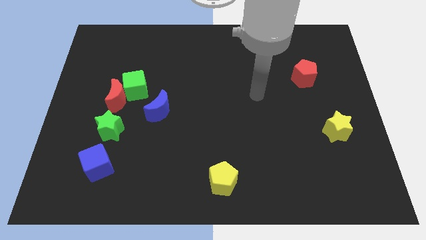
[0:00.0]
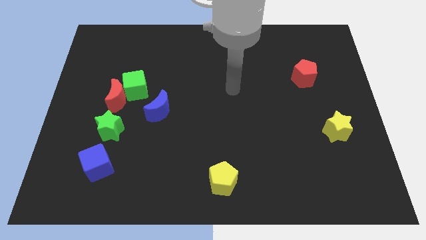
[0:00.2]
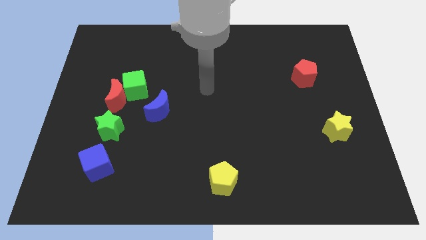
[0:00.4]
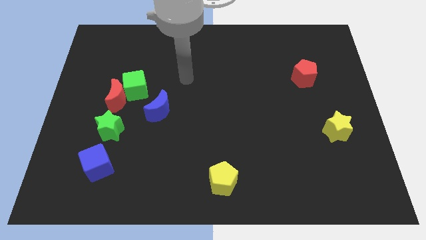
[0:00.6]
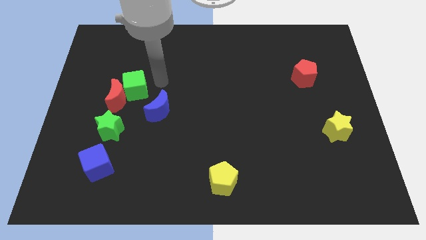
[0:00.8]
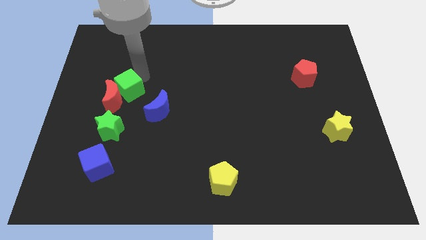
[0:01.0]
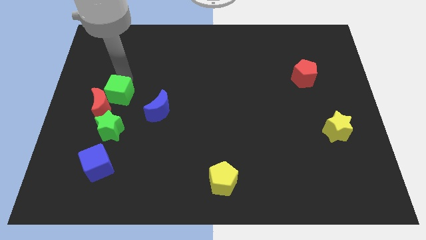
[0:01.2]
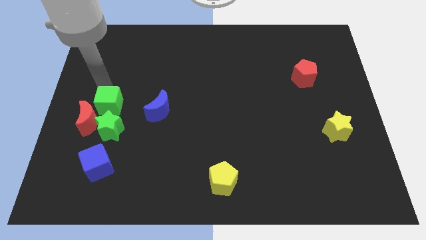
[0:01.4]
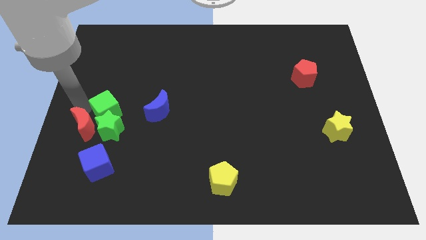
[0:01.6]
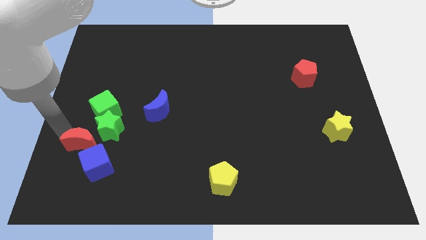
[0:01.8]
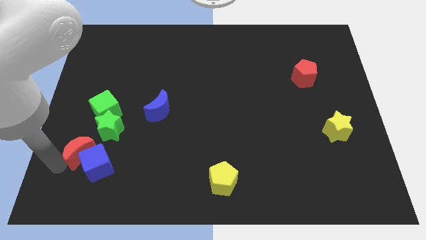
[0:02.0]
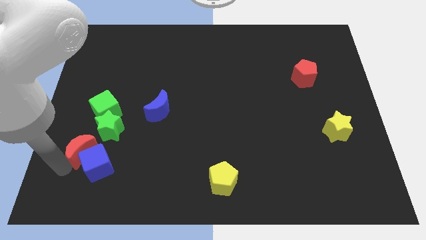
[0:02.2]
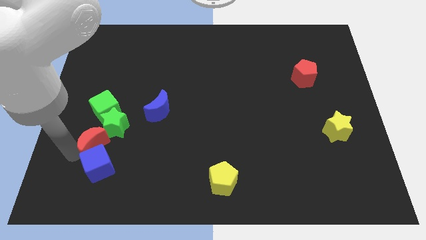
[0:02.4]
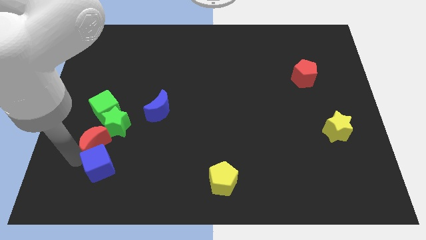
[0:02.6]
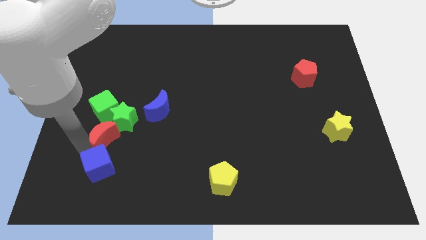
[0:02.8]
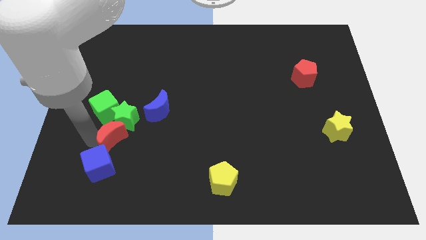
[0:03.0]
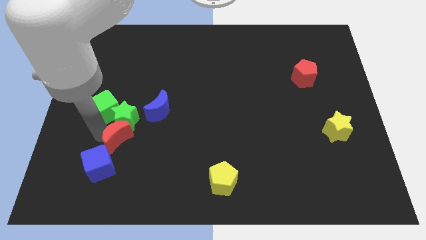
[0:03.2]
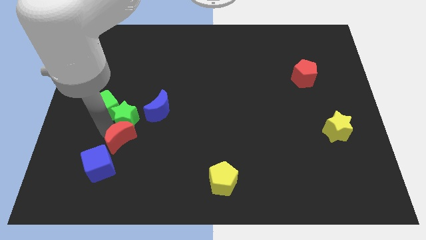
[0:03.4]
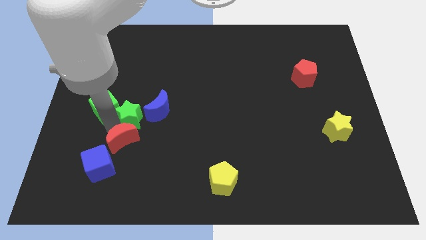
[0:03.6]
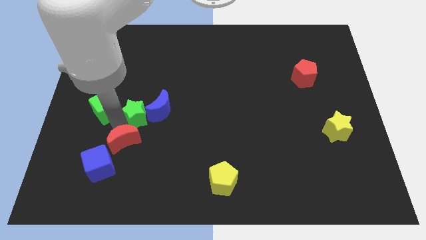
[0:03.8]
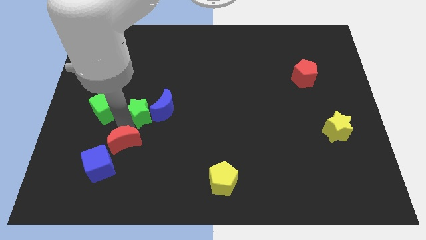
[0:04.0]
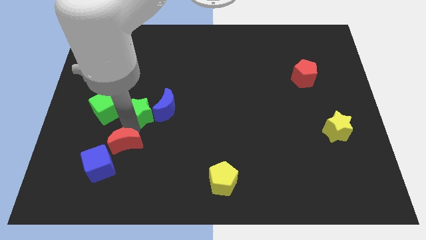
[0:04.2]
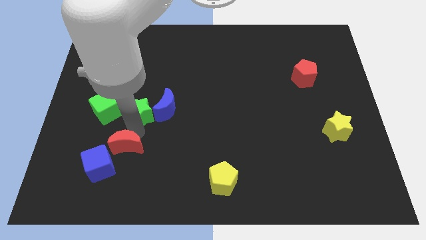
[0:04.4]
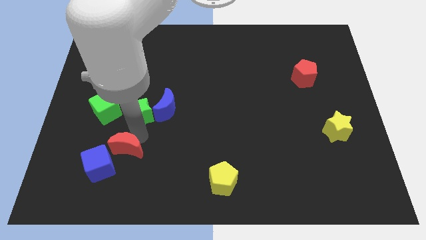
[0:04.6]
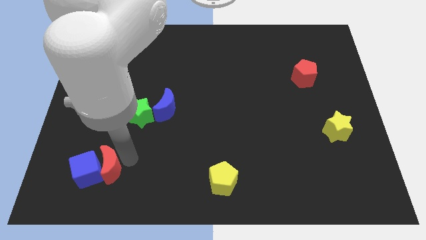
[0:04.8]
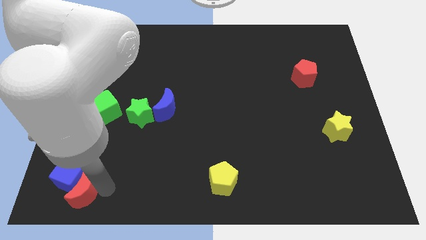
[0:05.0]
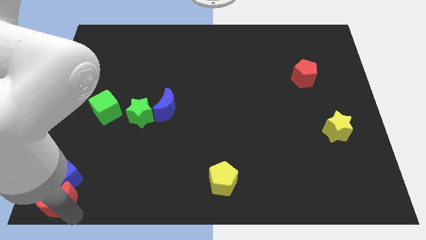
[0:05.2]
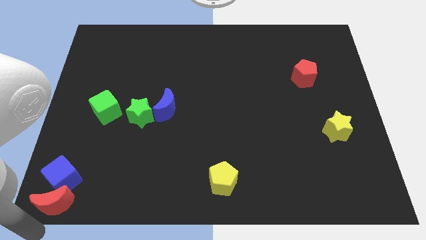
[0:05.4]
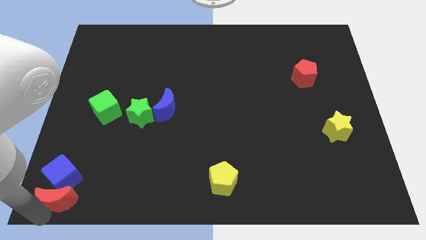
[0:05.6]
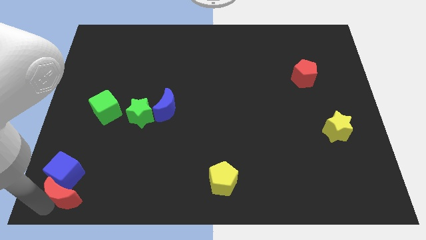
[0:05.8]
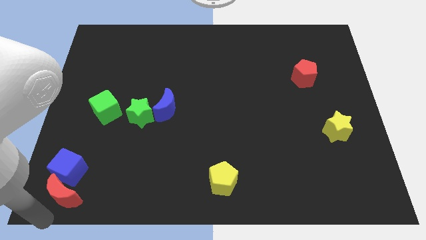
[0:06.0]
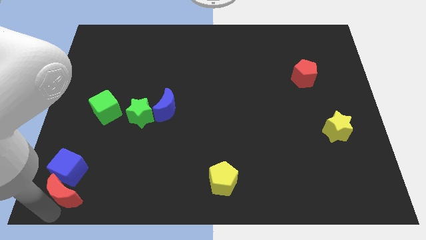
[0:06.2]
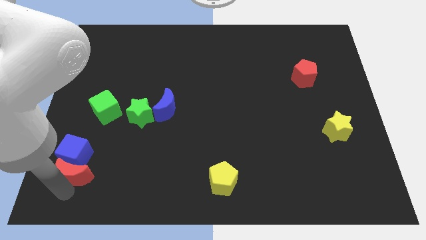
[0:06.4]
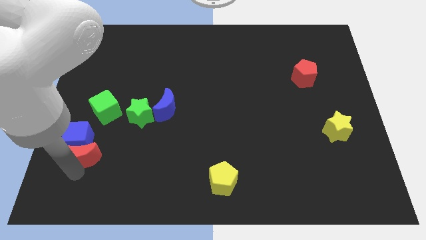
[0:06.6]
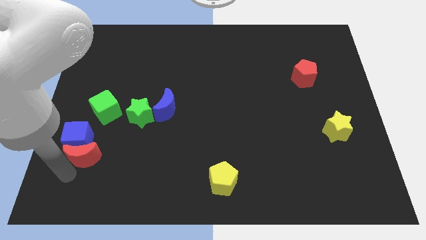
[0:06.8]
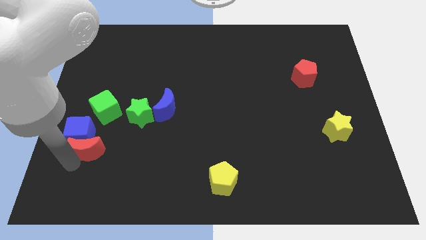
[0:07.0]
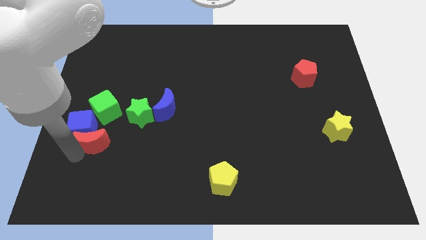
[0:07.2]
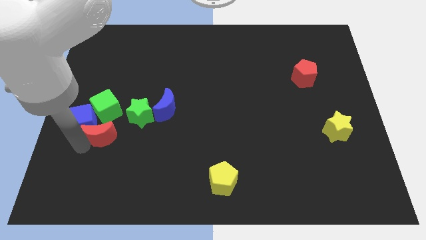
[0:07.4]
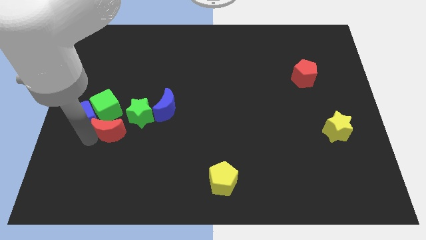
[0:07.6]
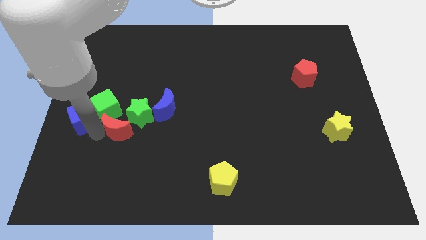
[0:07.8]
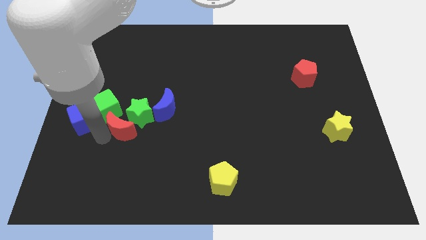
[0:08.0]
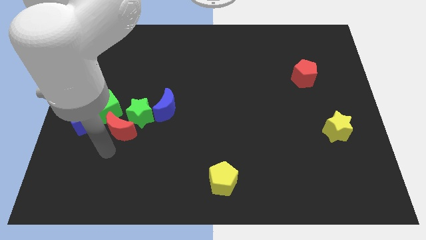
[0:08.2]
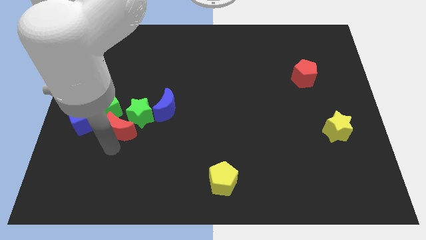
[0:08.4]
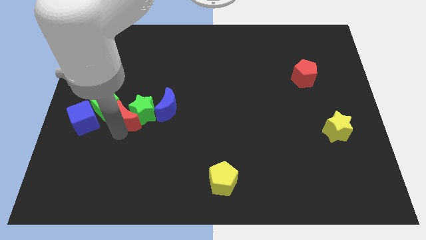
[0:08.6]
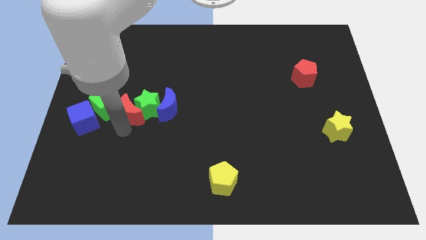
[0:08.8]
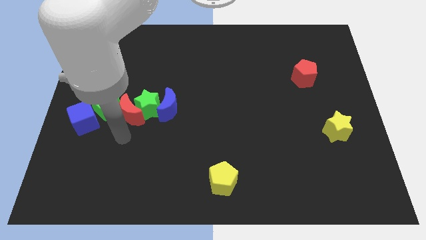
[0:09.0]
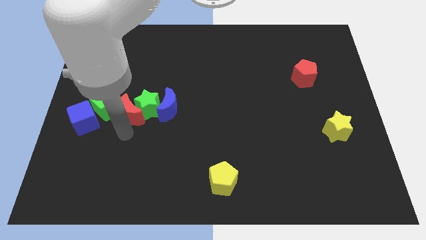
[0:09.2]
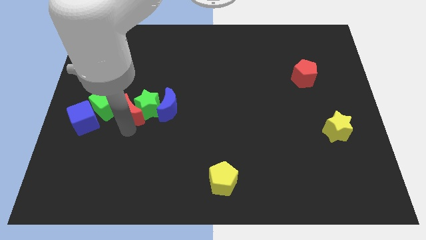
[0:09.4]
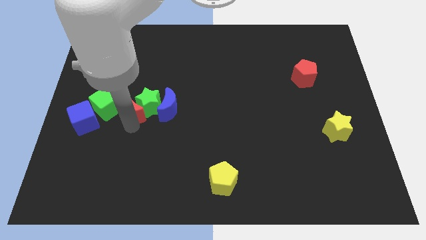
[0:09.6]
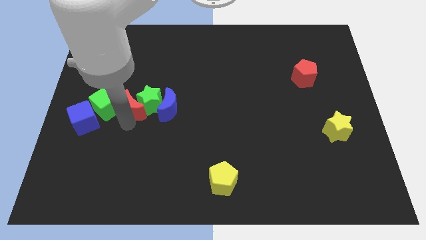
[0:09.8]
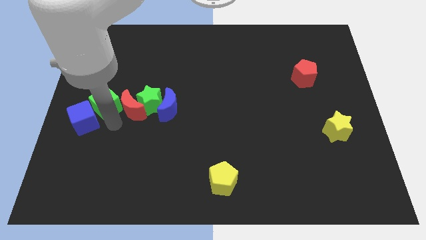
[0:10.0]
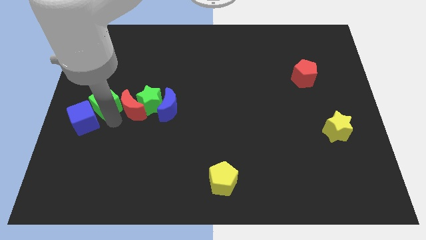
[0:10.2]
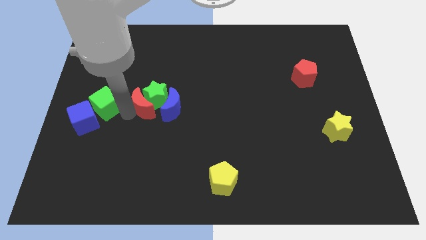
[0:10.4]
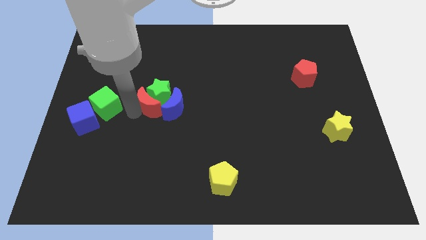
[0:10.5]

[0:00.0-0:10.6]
move the red moon slightly to the right

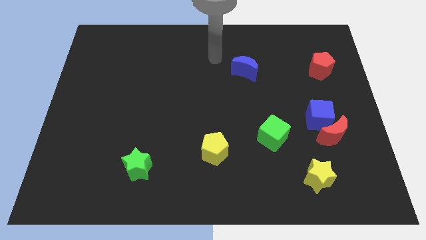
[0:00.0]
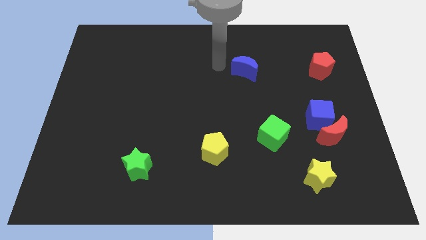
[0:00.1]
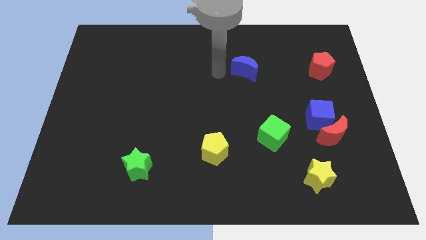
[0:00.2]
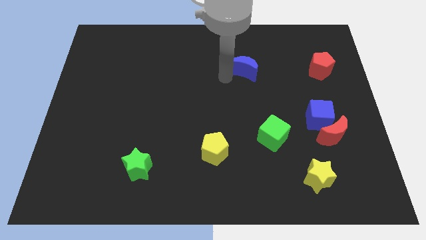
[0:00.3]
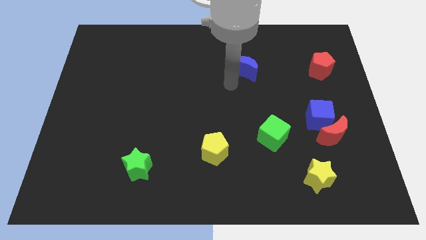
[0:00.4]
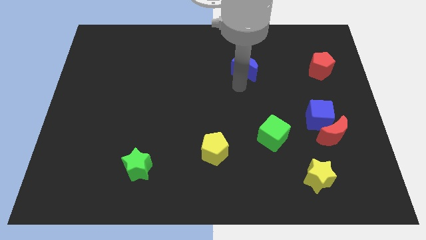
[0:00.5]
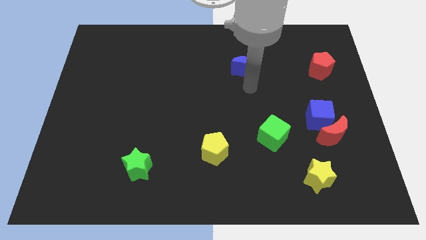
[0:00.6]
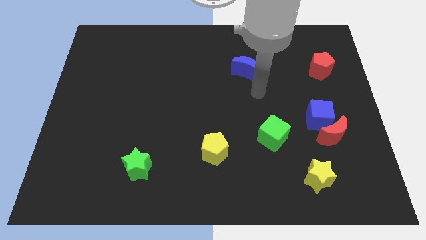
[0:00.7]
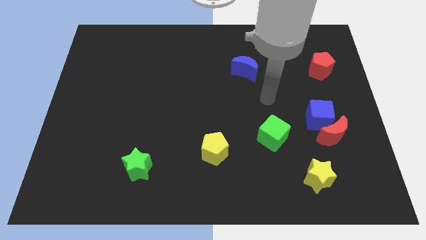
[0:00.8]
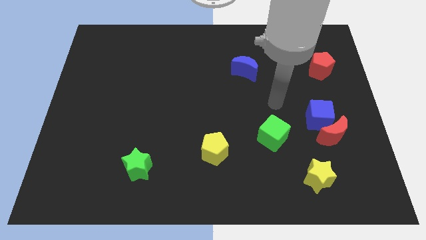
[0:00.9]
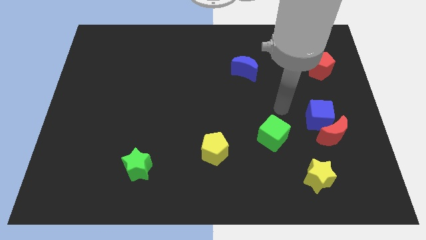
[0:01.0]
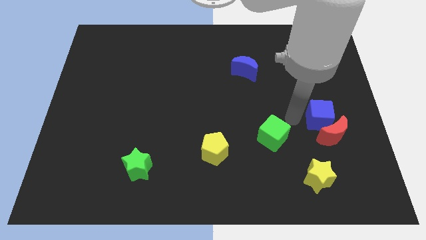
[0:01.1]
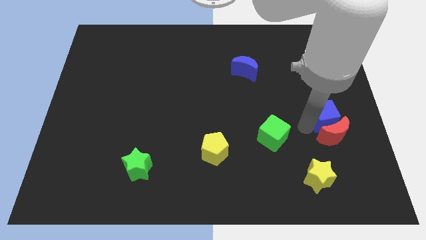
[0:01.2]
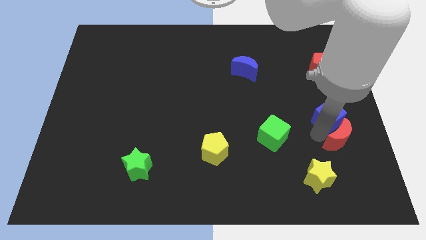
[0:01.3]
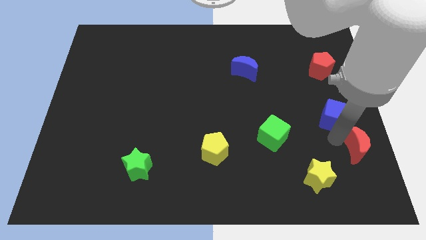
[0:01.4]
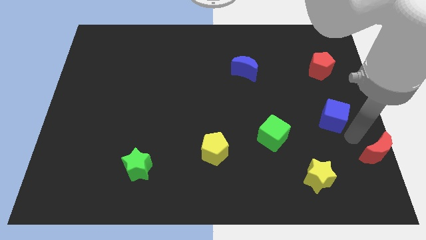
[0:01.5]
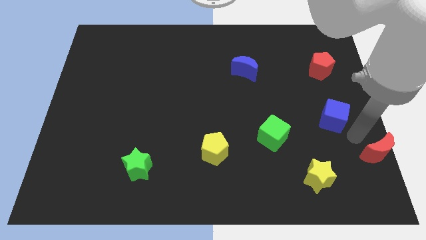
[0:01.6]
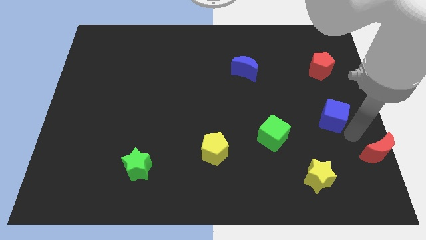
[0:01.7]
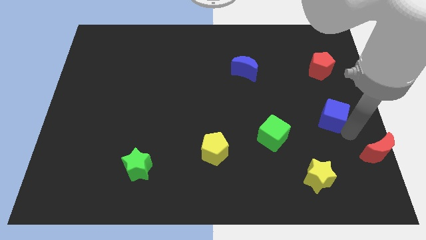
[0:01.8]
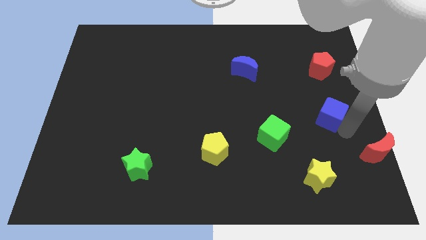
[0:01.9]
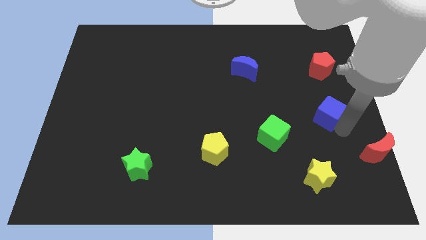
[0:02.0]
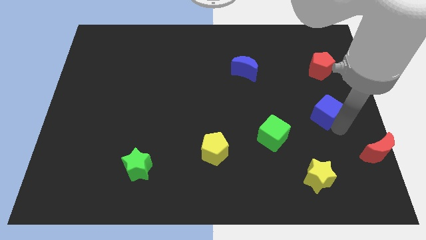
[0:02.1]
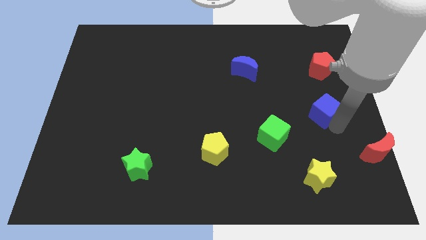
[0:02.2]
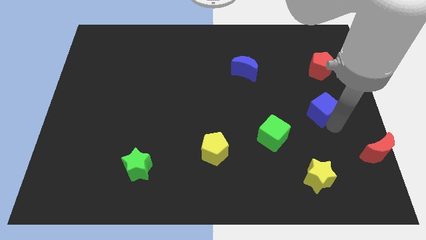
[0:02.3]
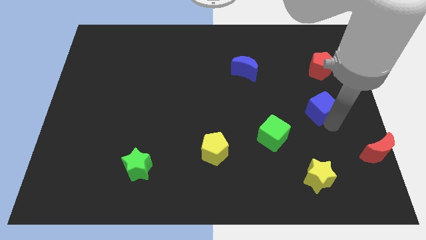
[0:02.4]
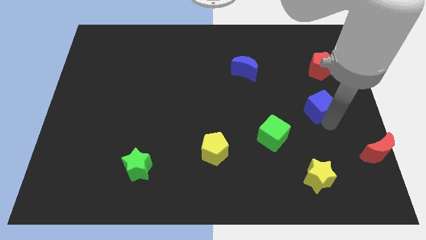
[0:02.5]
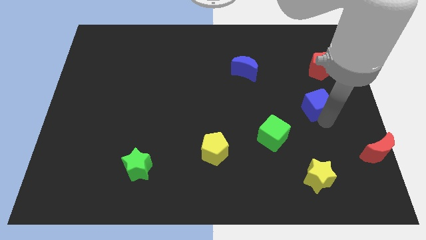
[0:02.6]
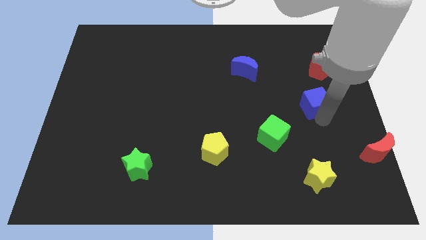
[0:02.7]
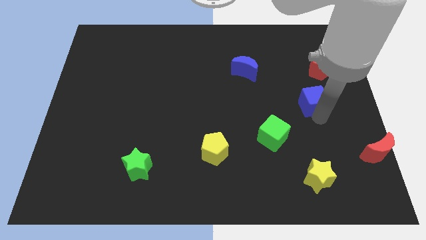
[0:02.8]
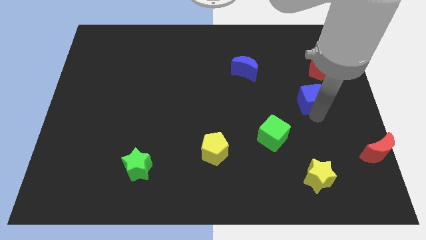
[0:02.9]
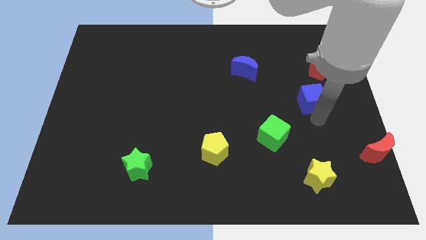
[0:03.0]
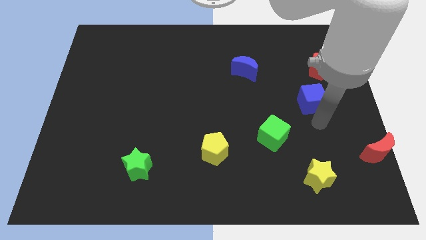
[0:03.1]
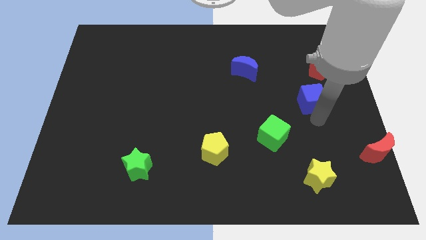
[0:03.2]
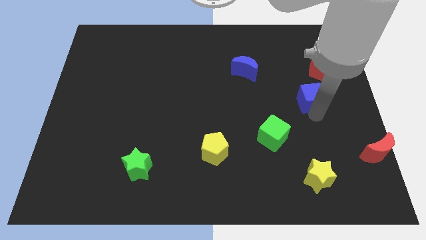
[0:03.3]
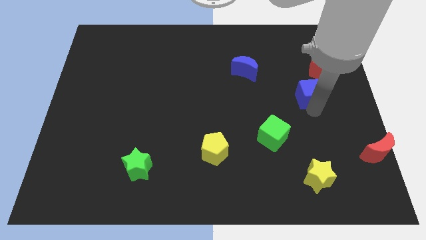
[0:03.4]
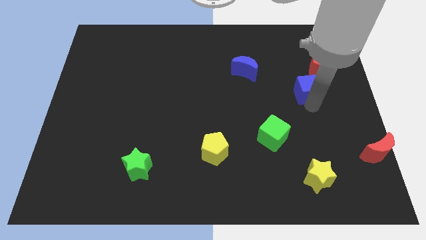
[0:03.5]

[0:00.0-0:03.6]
move the blue cube up a little bit
